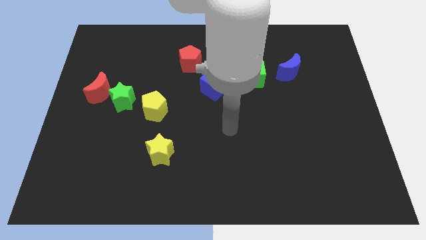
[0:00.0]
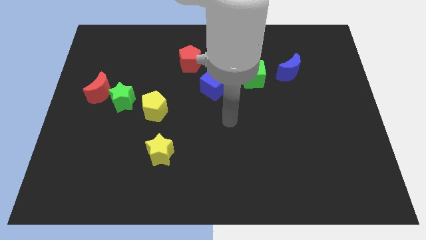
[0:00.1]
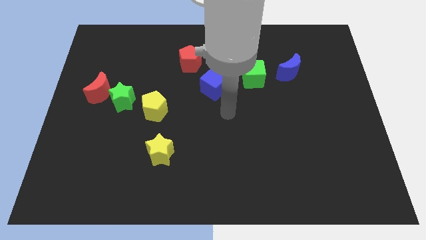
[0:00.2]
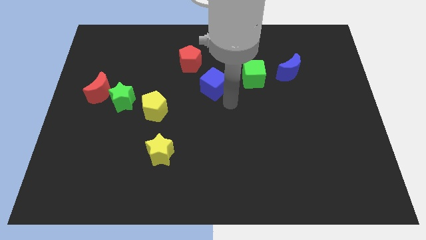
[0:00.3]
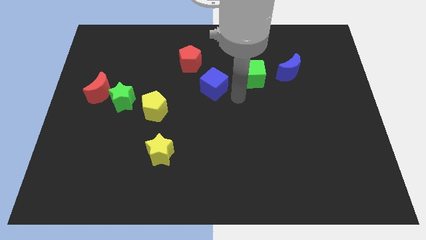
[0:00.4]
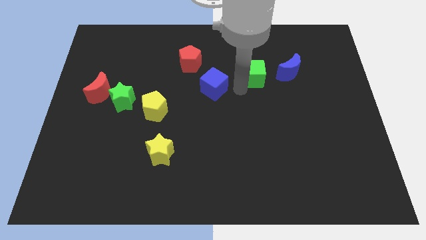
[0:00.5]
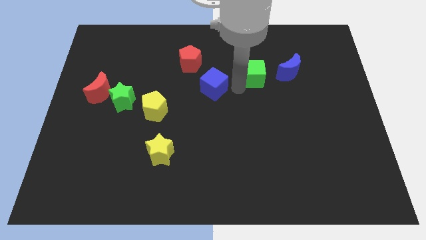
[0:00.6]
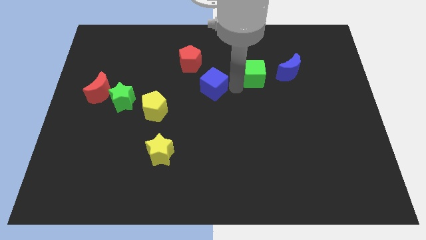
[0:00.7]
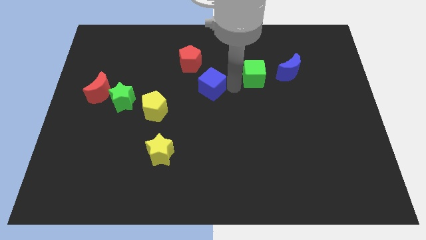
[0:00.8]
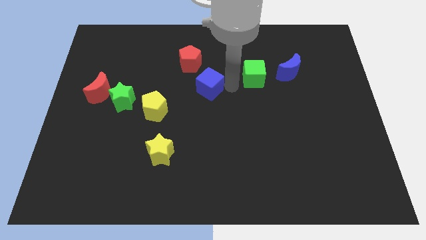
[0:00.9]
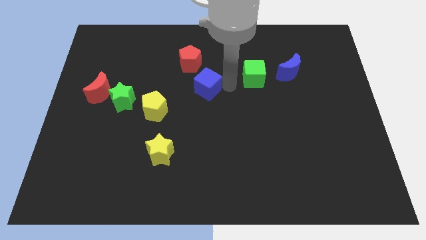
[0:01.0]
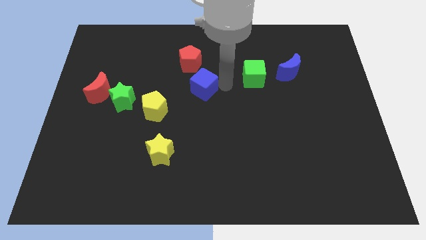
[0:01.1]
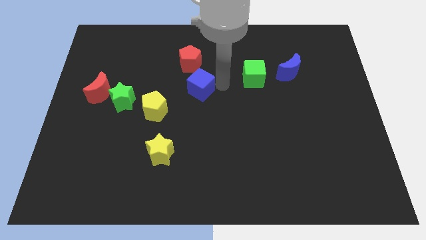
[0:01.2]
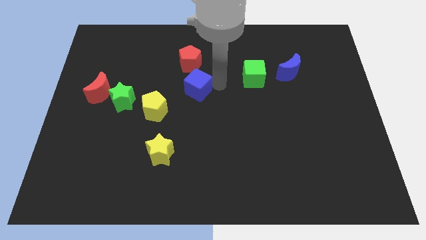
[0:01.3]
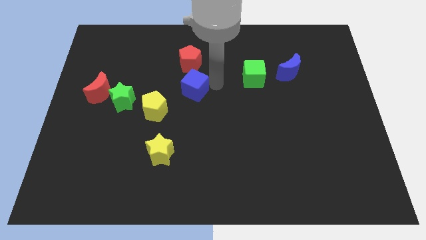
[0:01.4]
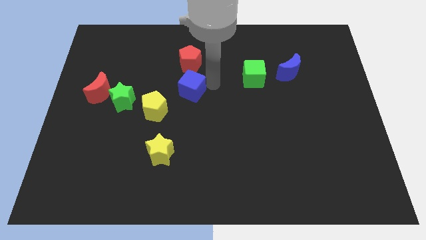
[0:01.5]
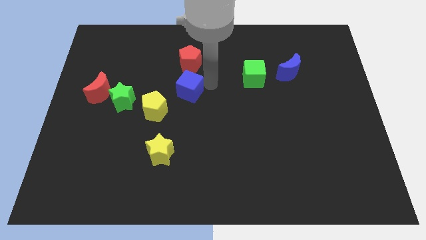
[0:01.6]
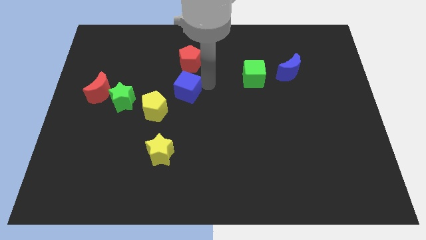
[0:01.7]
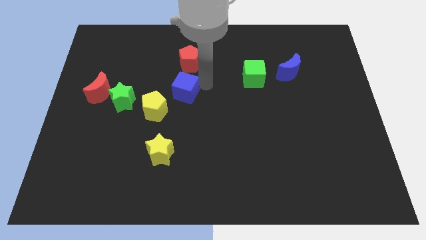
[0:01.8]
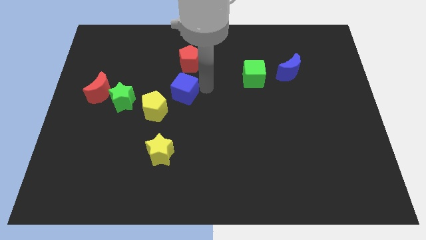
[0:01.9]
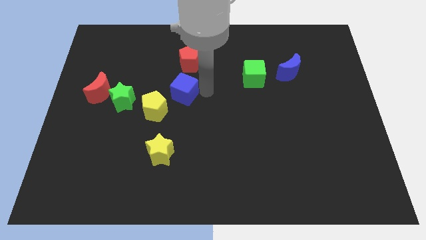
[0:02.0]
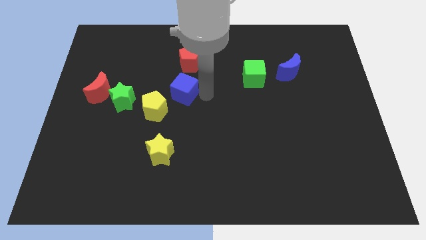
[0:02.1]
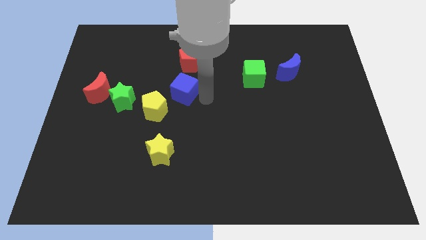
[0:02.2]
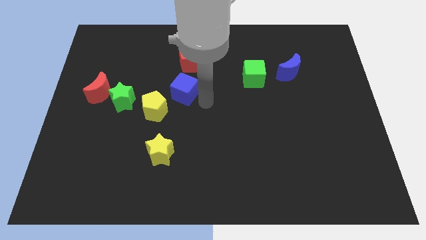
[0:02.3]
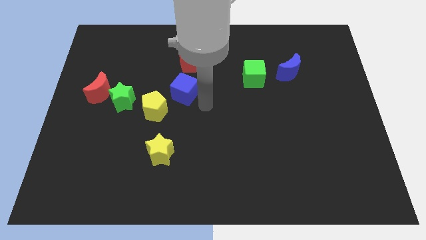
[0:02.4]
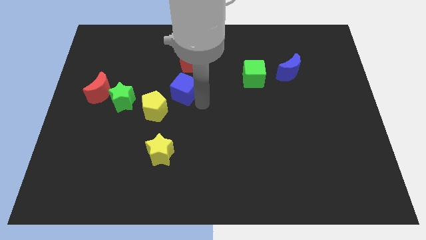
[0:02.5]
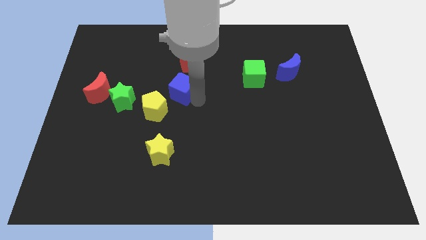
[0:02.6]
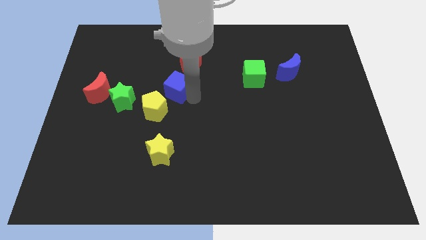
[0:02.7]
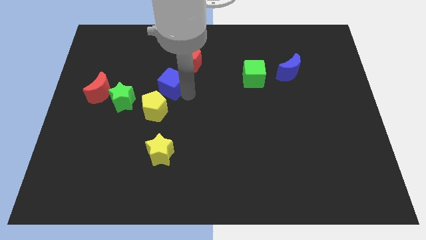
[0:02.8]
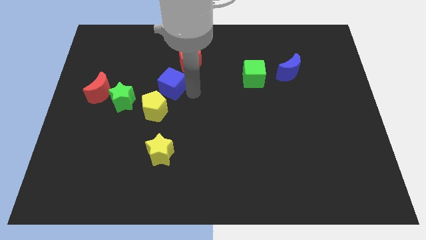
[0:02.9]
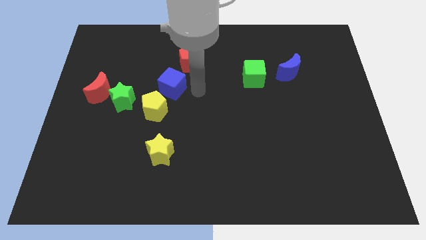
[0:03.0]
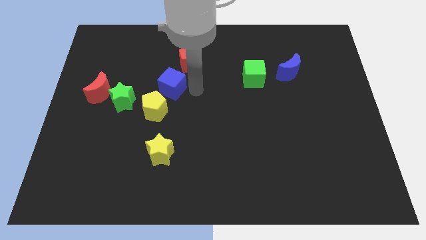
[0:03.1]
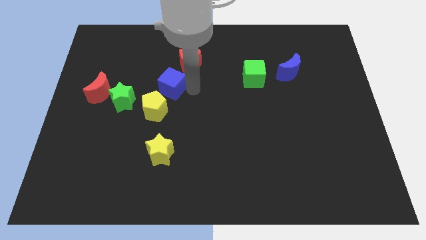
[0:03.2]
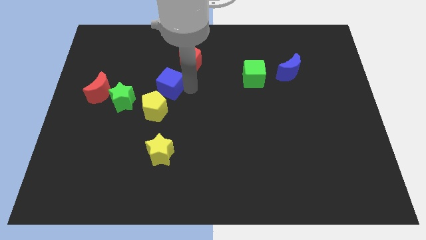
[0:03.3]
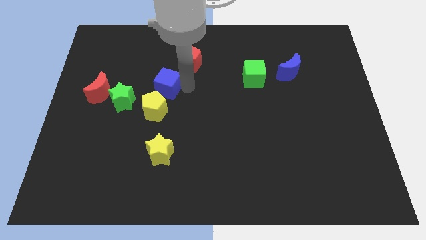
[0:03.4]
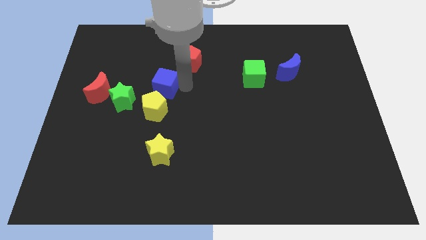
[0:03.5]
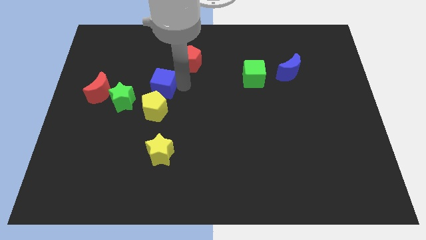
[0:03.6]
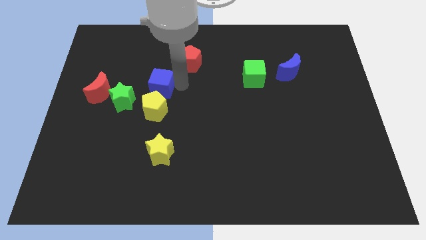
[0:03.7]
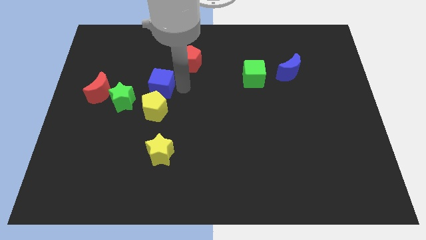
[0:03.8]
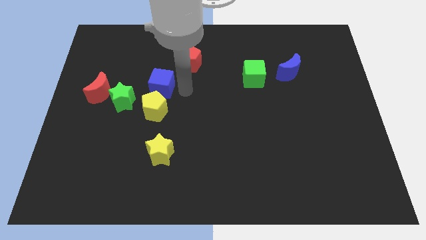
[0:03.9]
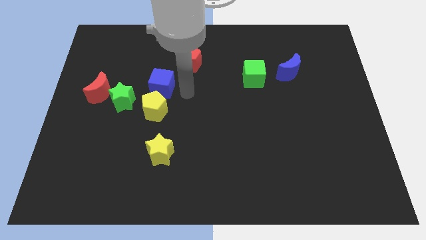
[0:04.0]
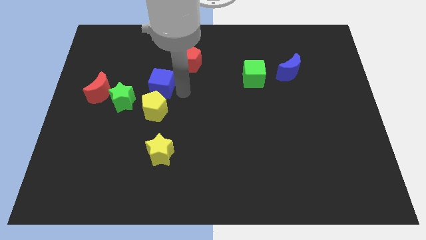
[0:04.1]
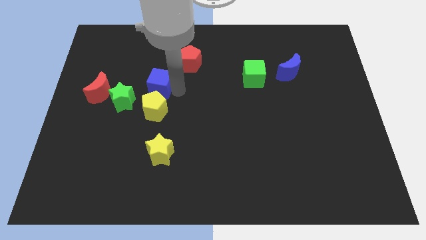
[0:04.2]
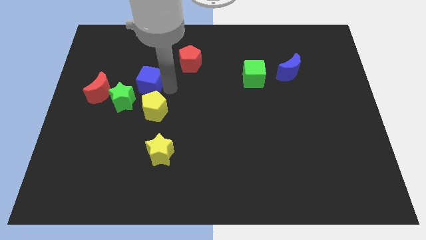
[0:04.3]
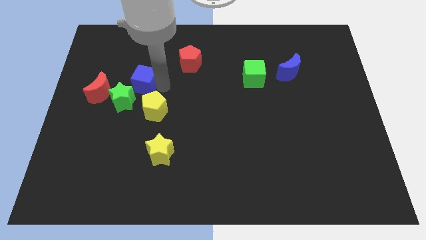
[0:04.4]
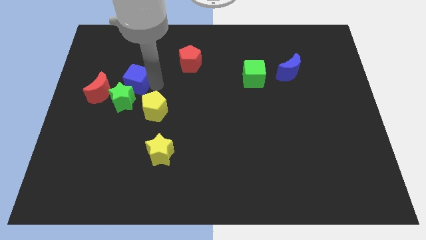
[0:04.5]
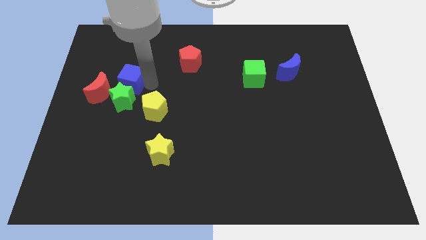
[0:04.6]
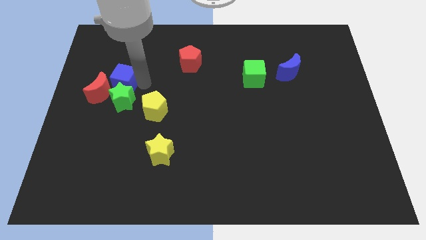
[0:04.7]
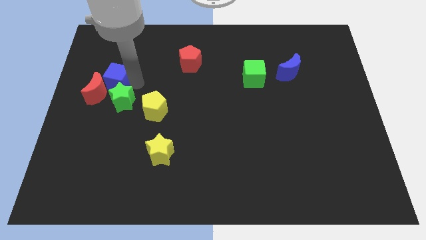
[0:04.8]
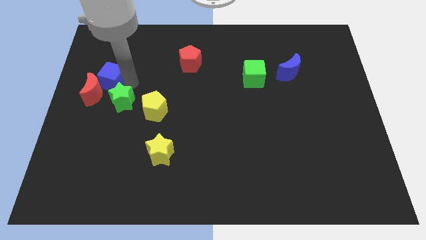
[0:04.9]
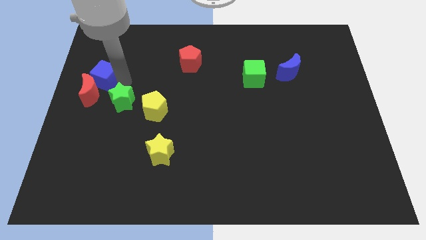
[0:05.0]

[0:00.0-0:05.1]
move the blue cube to the left side

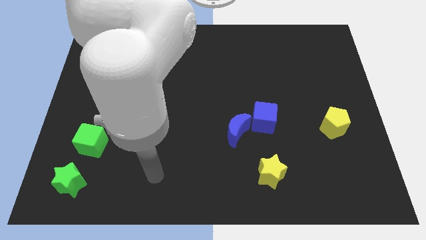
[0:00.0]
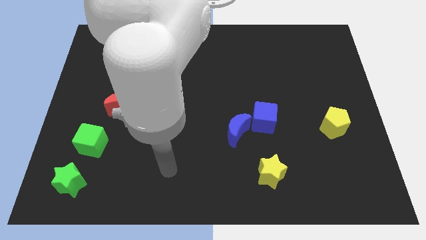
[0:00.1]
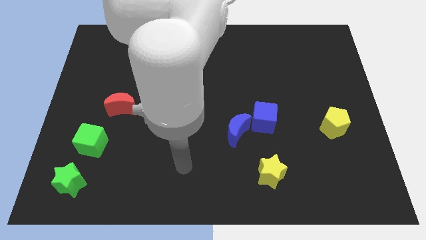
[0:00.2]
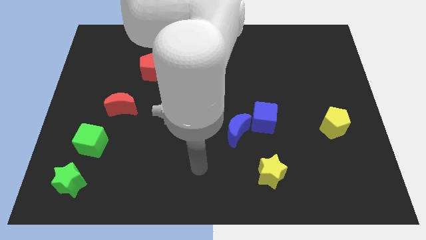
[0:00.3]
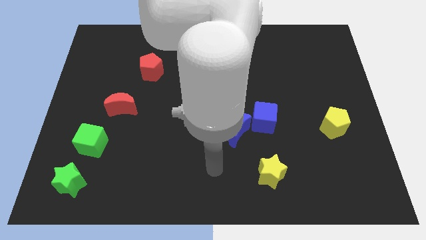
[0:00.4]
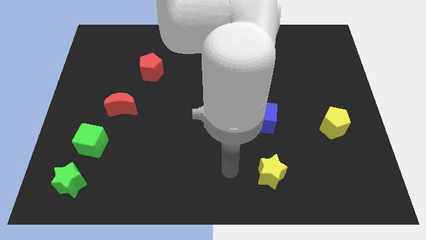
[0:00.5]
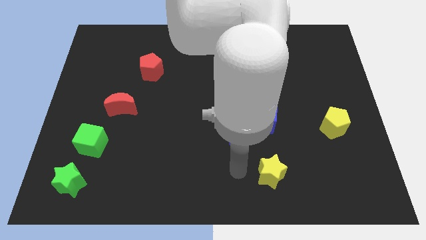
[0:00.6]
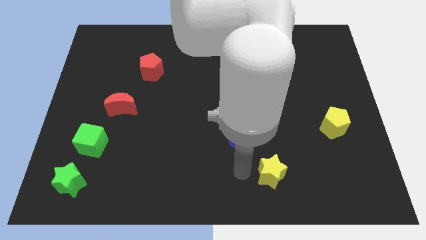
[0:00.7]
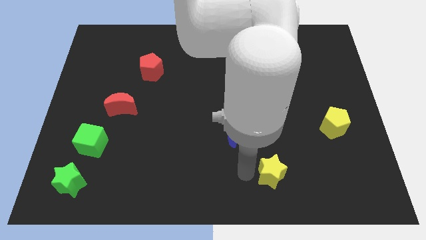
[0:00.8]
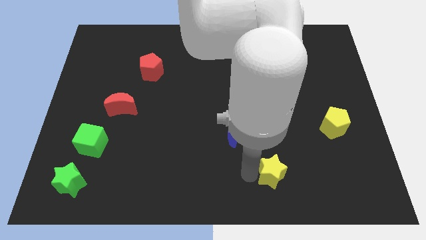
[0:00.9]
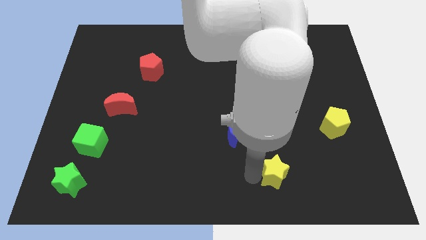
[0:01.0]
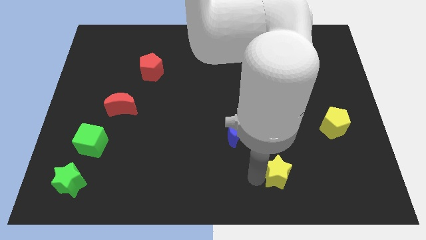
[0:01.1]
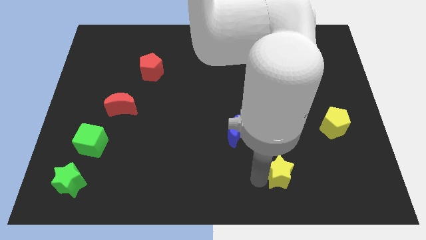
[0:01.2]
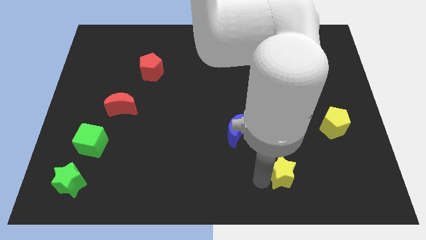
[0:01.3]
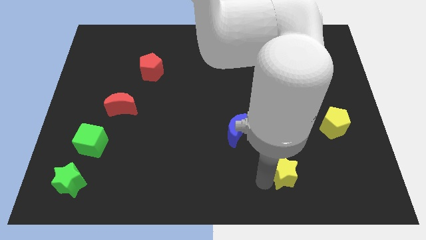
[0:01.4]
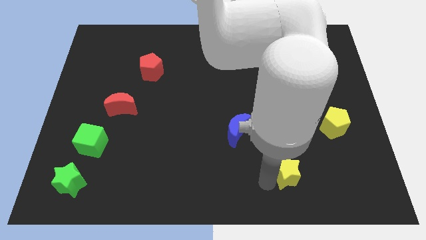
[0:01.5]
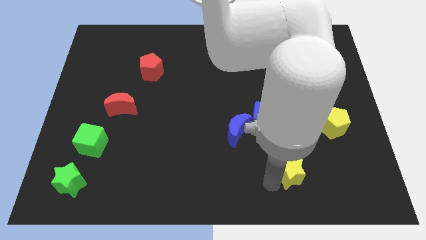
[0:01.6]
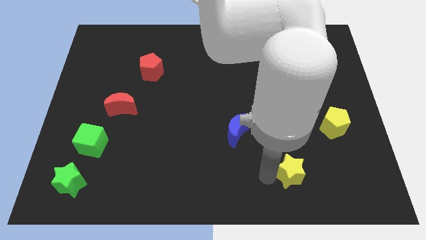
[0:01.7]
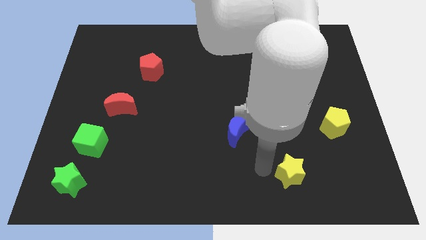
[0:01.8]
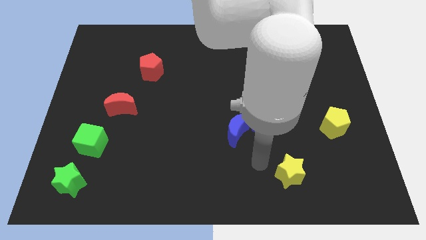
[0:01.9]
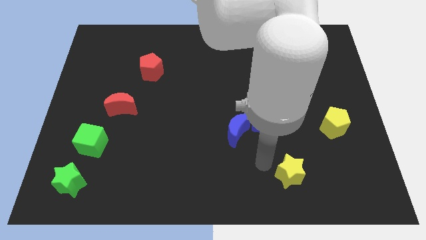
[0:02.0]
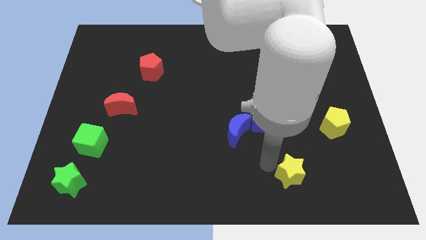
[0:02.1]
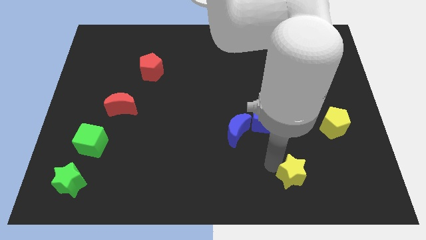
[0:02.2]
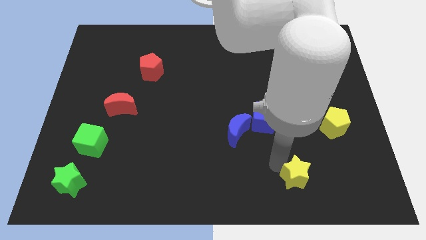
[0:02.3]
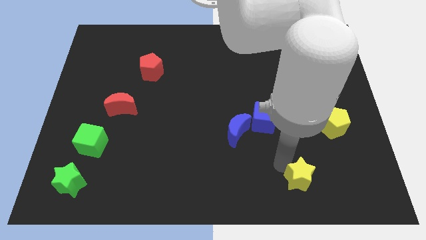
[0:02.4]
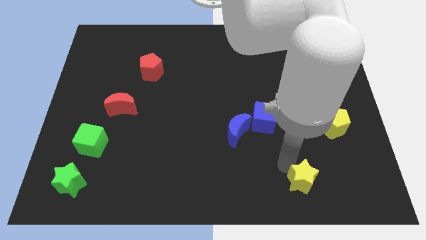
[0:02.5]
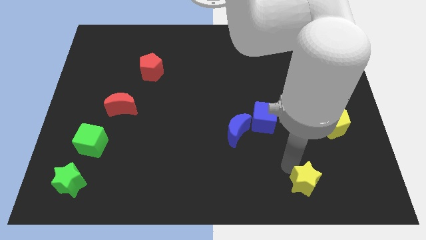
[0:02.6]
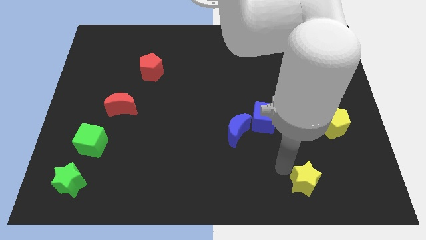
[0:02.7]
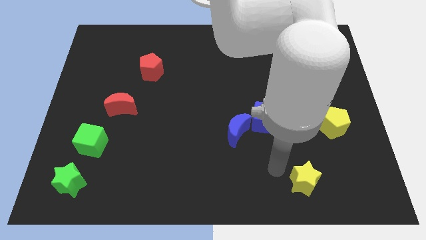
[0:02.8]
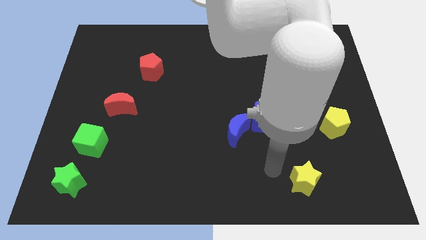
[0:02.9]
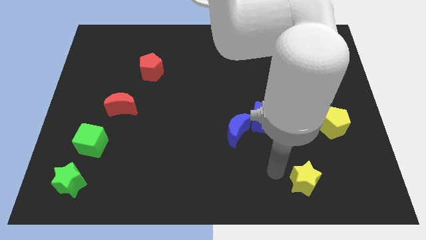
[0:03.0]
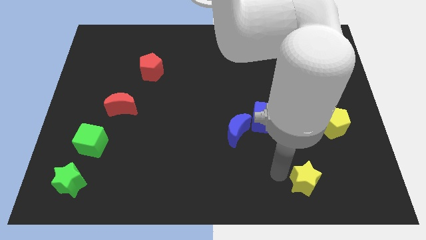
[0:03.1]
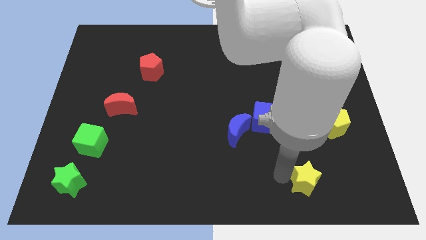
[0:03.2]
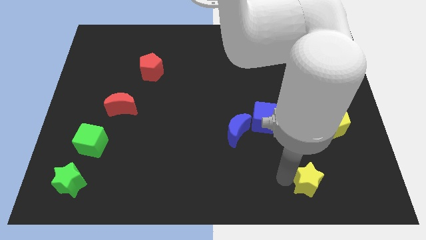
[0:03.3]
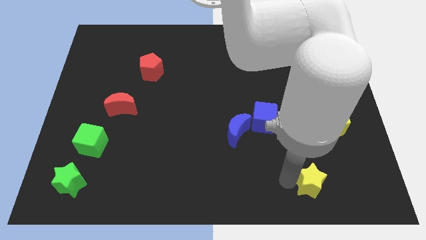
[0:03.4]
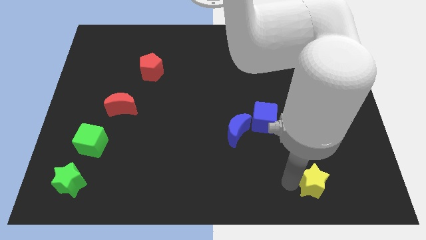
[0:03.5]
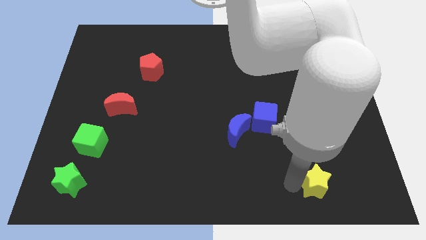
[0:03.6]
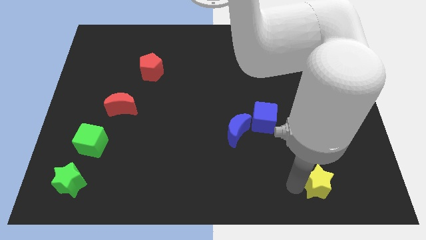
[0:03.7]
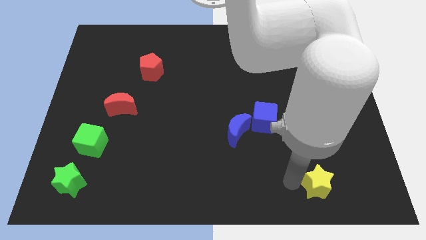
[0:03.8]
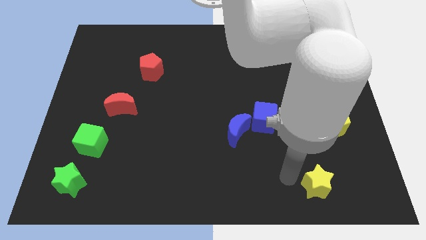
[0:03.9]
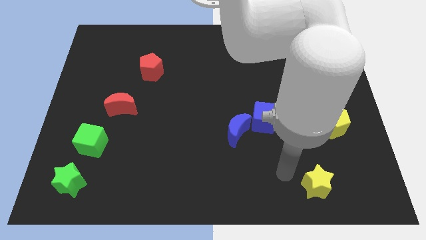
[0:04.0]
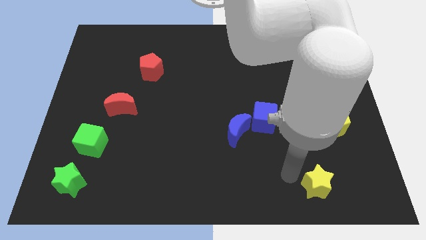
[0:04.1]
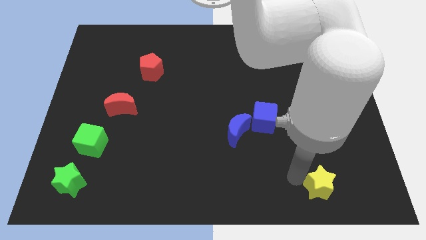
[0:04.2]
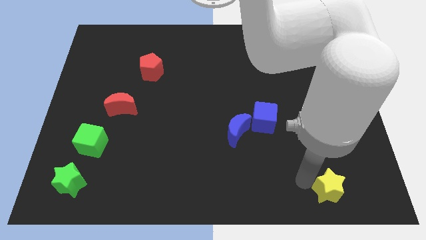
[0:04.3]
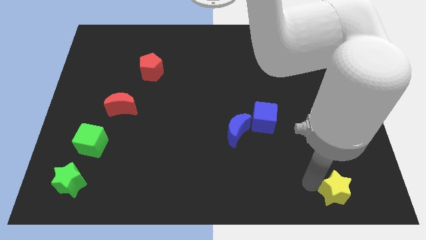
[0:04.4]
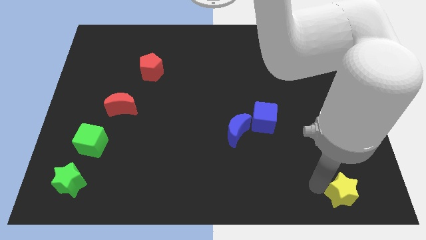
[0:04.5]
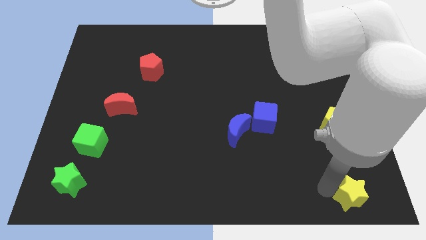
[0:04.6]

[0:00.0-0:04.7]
move the yellow star to the lower right corner
